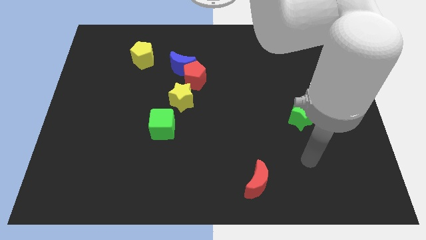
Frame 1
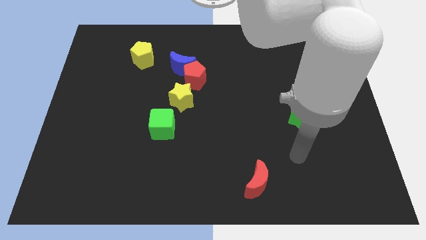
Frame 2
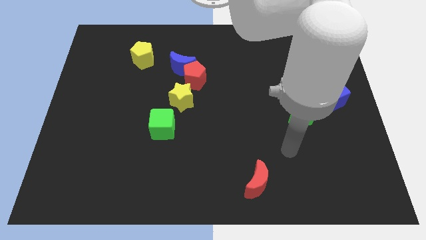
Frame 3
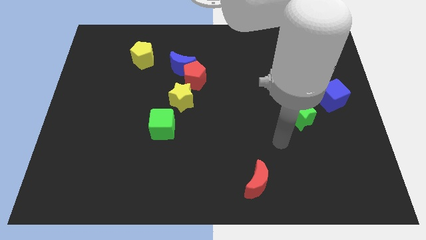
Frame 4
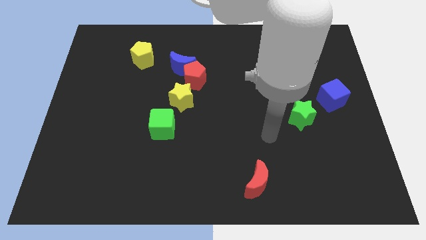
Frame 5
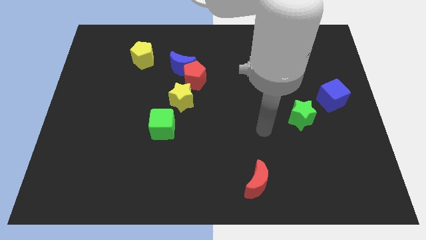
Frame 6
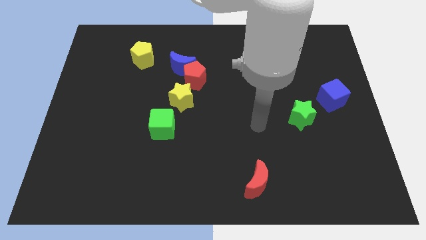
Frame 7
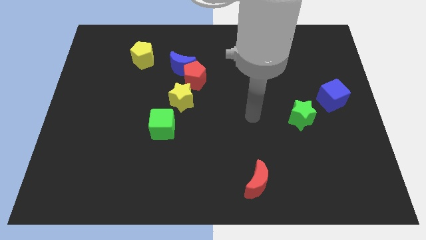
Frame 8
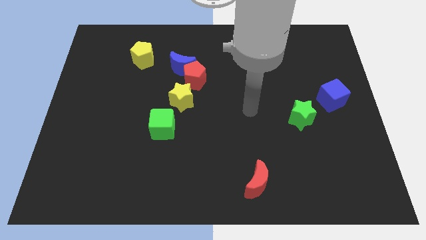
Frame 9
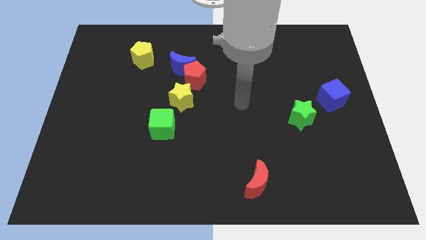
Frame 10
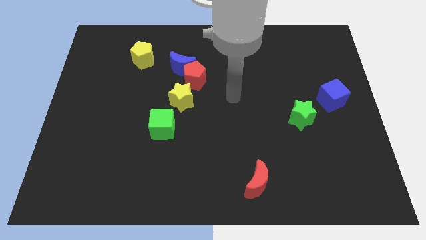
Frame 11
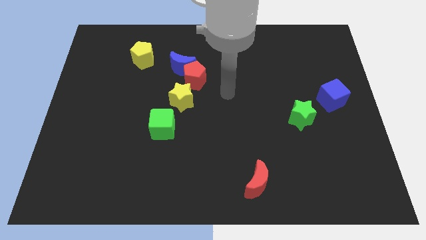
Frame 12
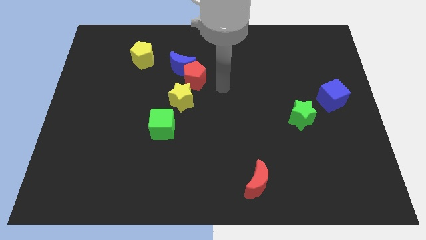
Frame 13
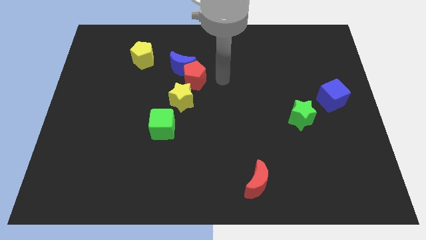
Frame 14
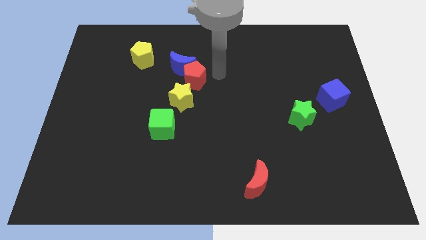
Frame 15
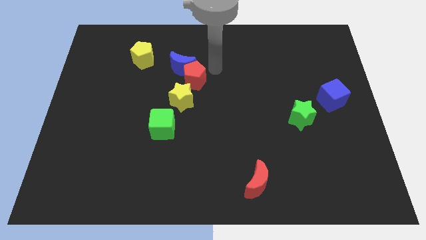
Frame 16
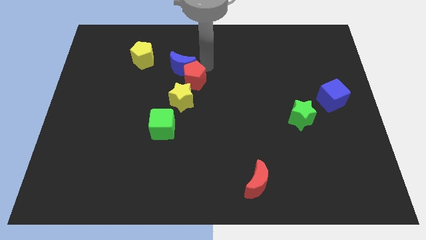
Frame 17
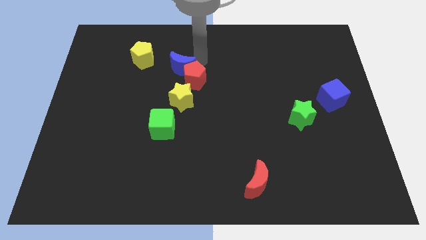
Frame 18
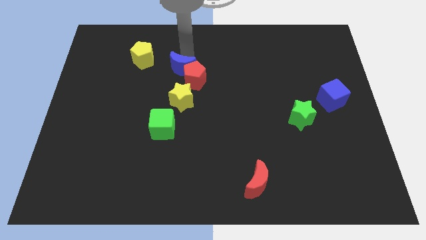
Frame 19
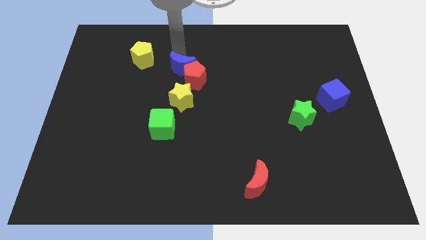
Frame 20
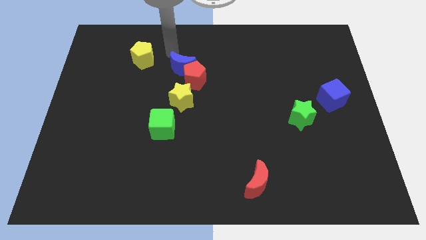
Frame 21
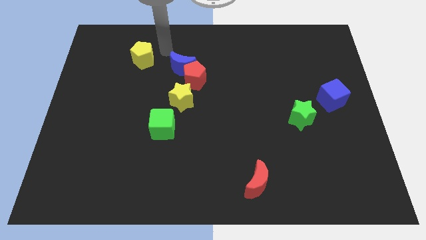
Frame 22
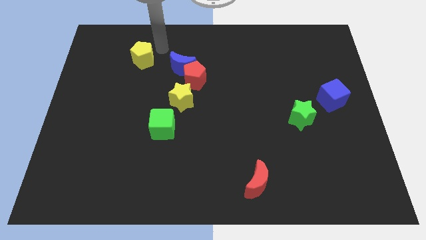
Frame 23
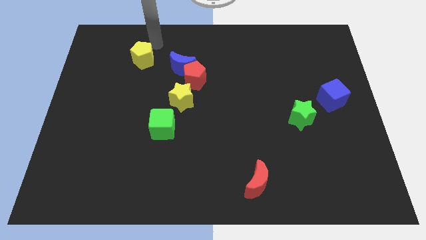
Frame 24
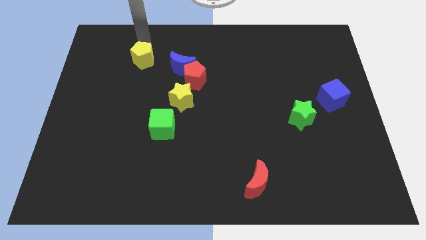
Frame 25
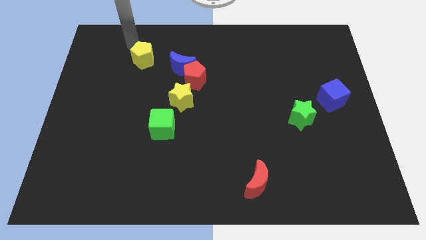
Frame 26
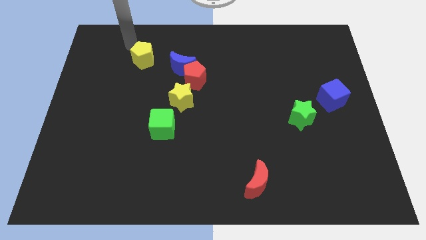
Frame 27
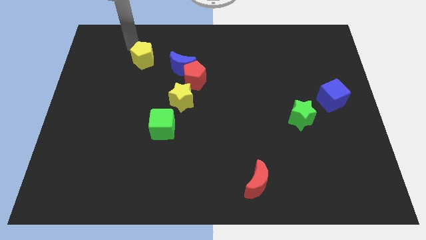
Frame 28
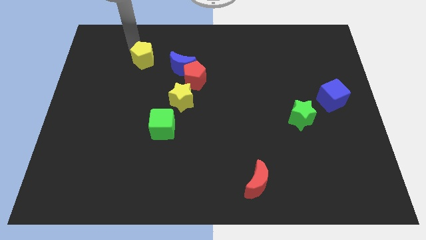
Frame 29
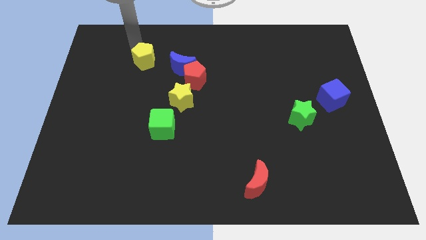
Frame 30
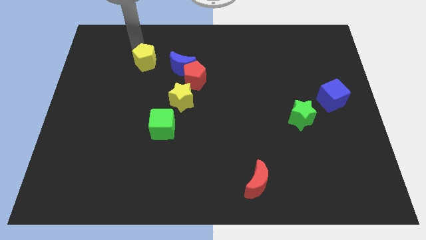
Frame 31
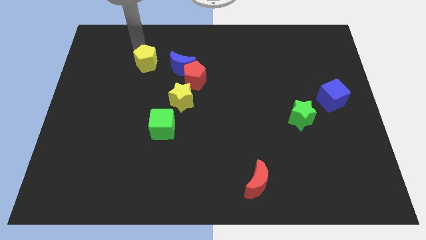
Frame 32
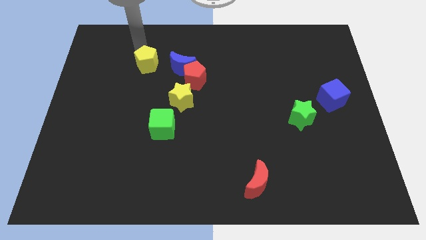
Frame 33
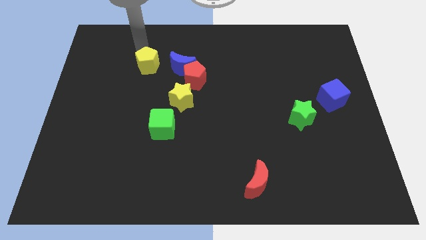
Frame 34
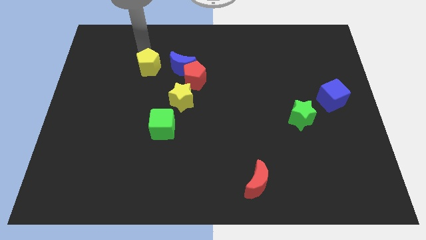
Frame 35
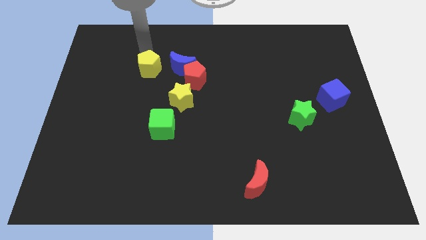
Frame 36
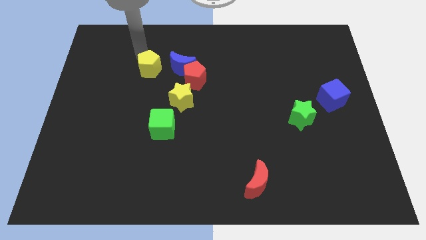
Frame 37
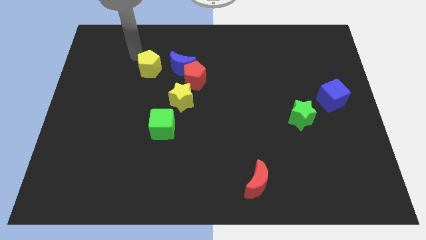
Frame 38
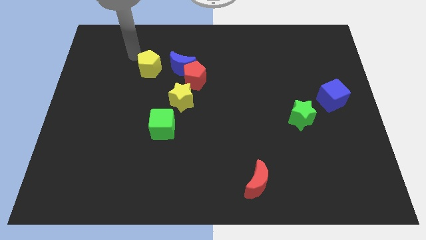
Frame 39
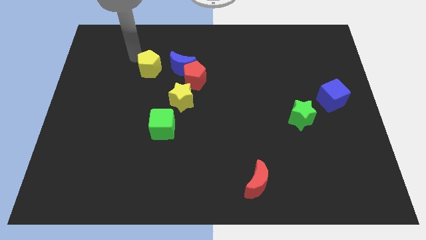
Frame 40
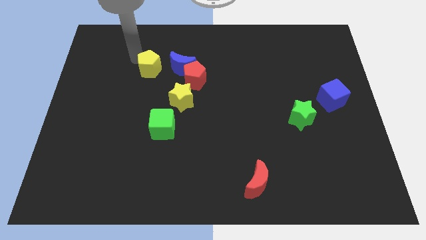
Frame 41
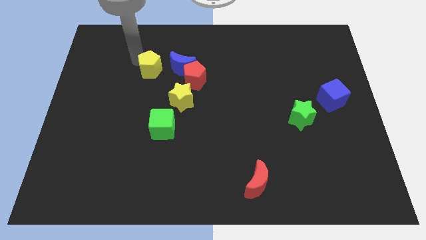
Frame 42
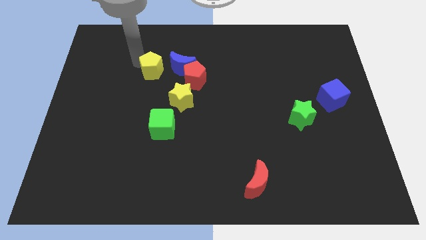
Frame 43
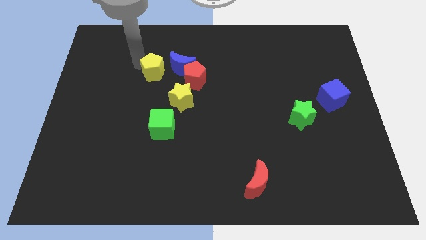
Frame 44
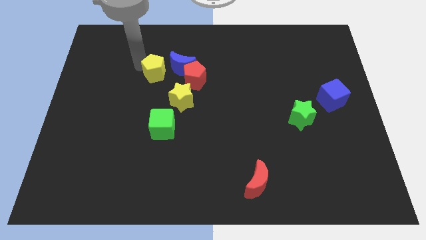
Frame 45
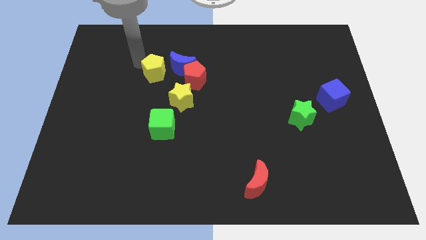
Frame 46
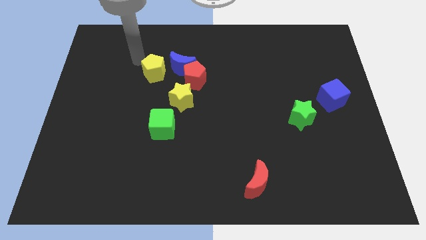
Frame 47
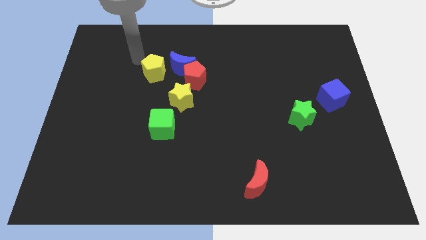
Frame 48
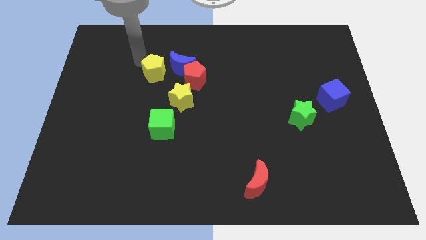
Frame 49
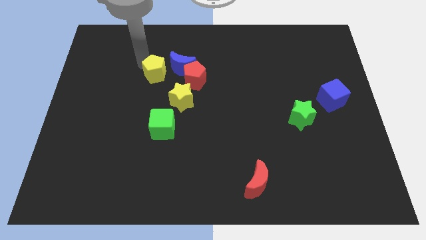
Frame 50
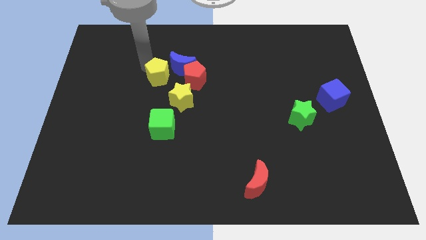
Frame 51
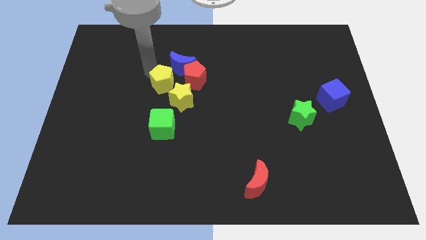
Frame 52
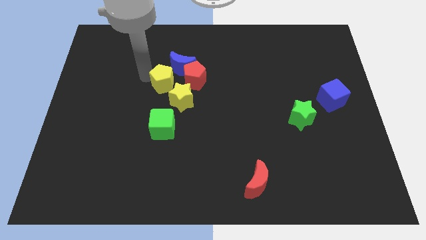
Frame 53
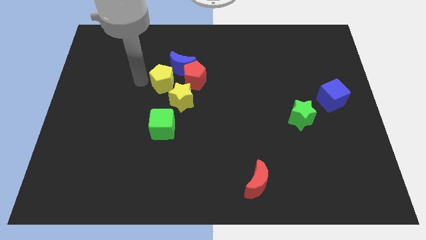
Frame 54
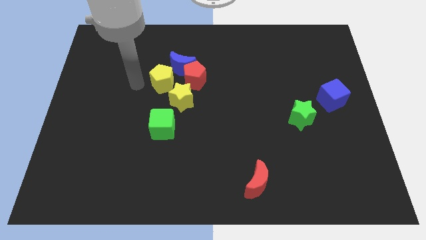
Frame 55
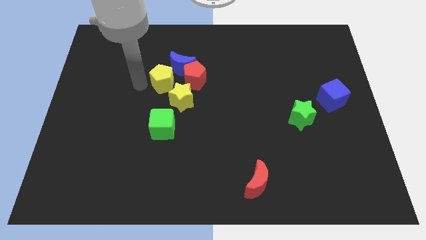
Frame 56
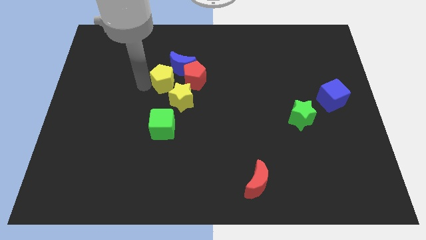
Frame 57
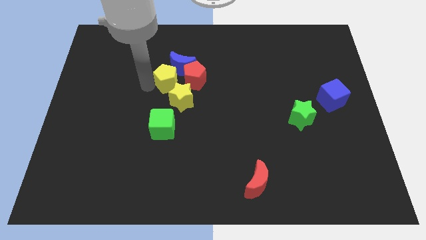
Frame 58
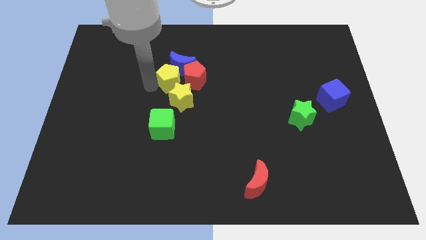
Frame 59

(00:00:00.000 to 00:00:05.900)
put the yellow pentagon close to the red pentagon
